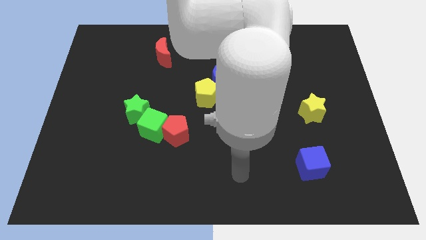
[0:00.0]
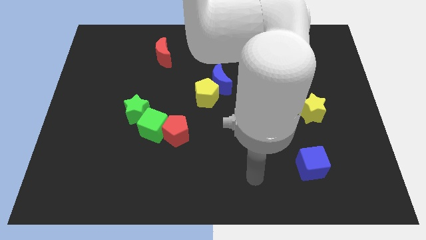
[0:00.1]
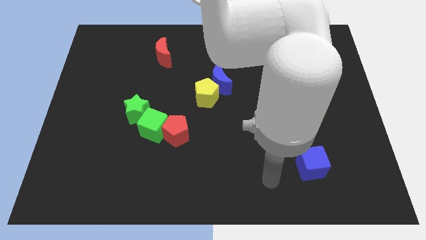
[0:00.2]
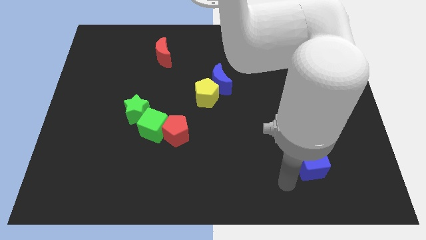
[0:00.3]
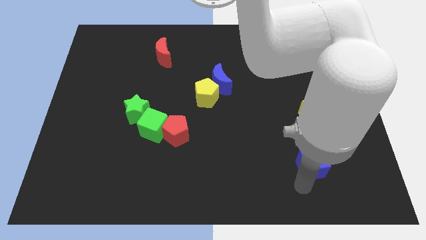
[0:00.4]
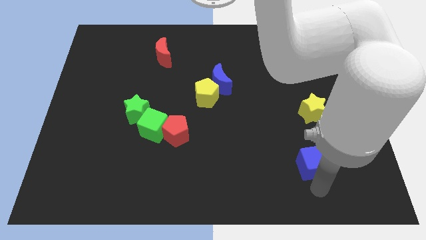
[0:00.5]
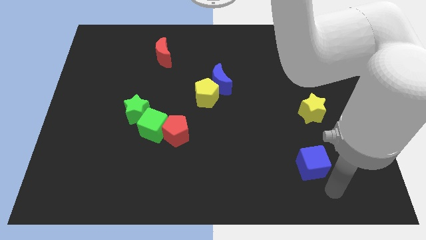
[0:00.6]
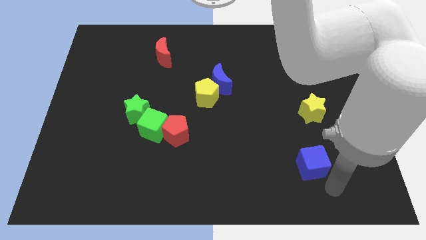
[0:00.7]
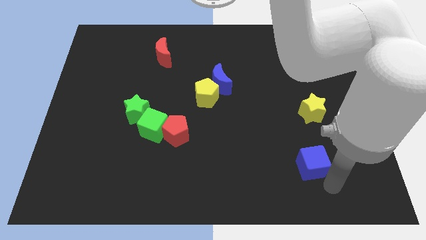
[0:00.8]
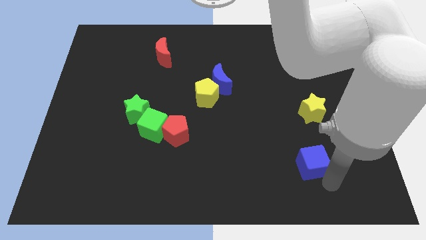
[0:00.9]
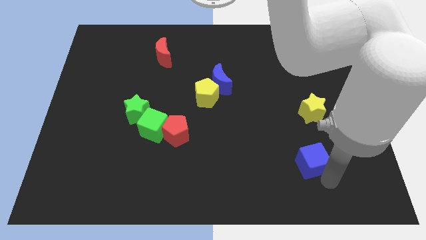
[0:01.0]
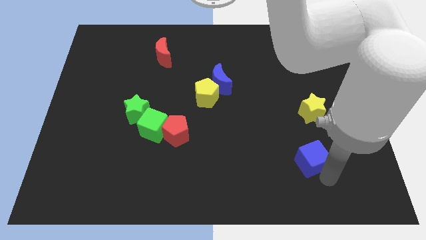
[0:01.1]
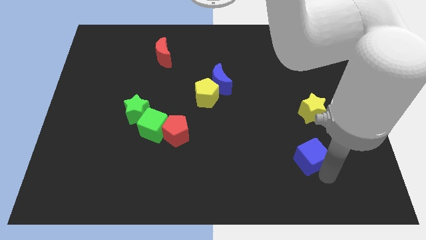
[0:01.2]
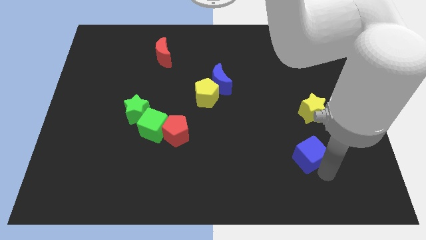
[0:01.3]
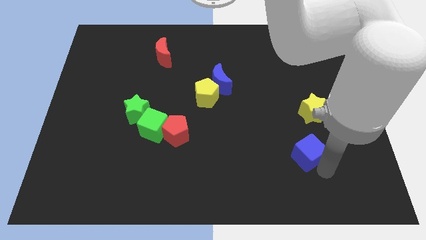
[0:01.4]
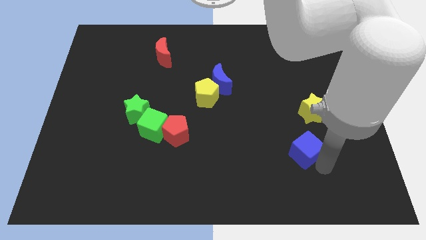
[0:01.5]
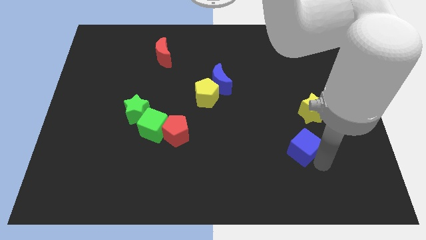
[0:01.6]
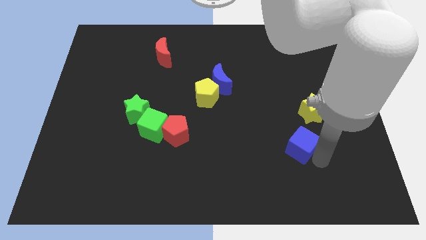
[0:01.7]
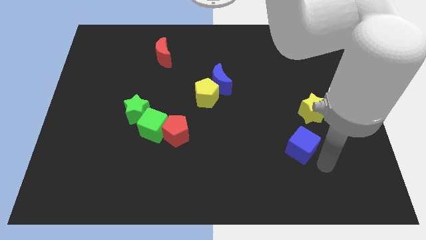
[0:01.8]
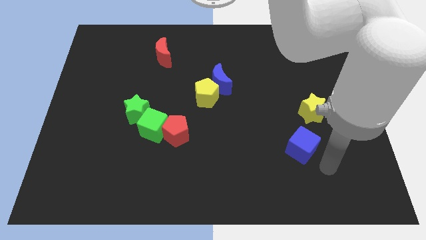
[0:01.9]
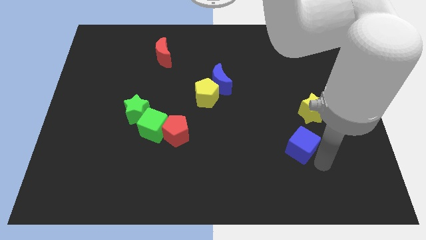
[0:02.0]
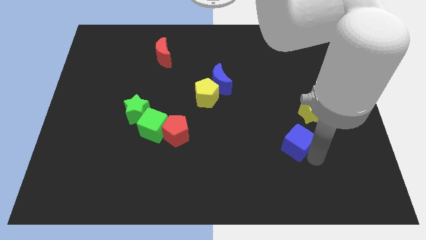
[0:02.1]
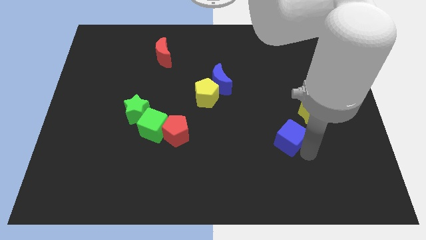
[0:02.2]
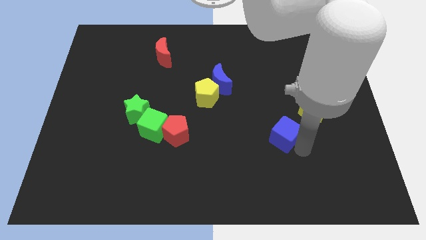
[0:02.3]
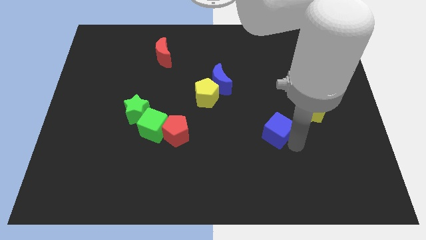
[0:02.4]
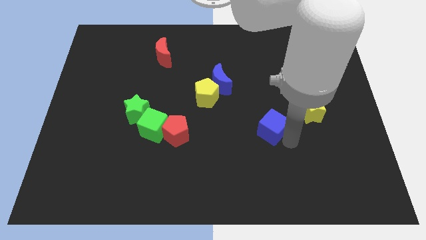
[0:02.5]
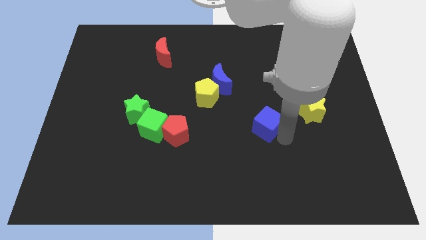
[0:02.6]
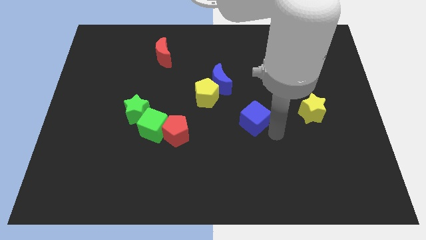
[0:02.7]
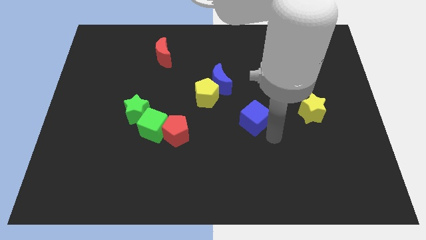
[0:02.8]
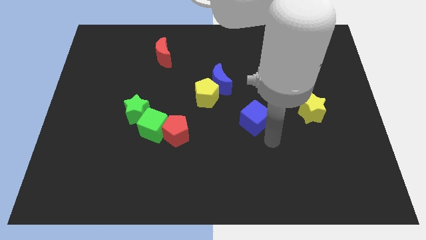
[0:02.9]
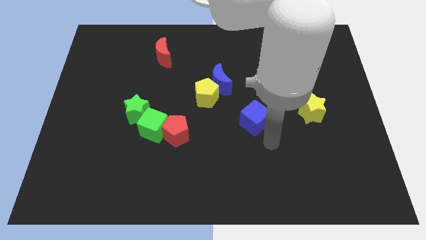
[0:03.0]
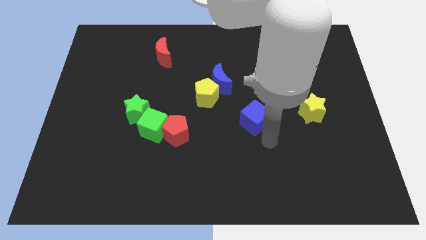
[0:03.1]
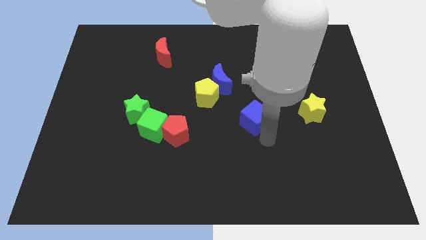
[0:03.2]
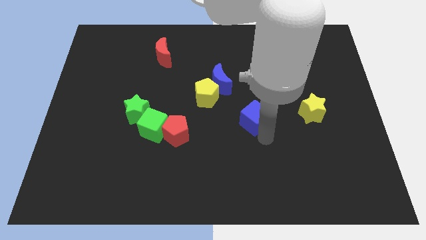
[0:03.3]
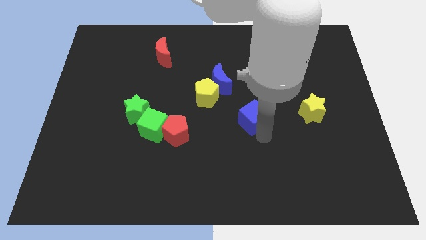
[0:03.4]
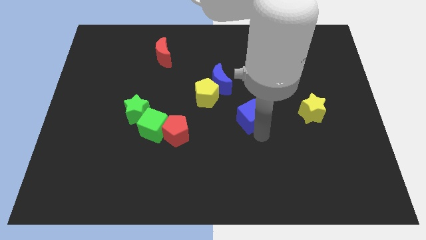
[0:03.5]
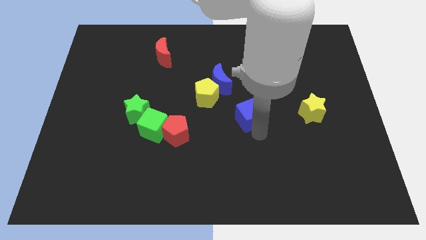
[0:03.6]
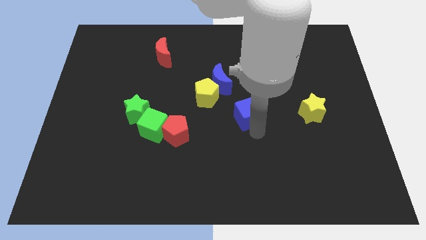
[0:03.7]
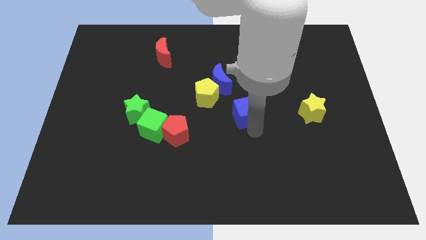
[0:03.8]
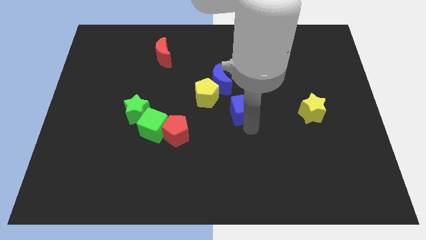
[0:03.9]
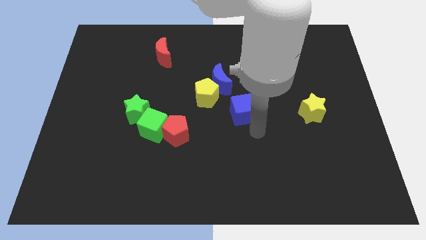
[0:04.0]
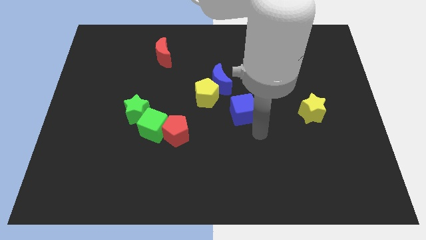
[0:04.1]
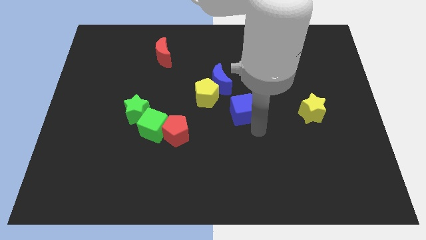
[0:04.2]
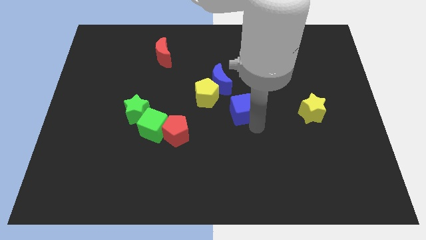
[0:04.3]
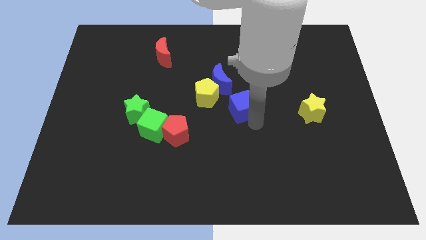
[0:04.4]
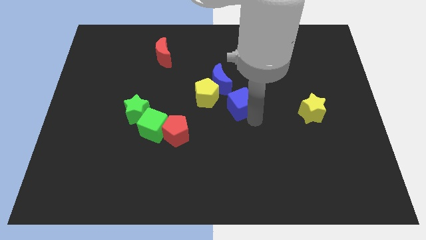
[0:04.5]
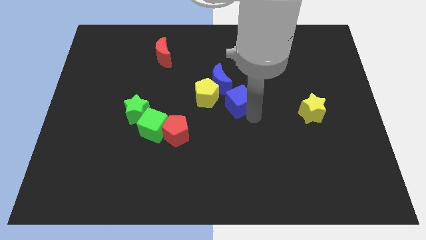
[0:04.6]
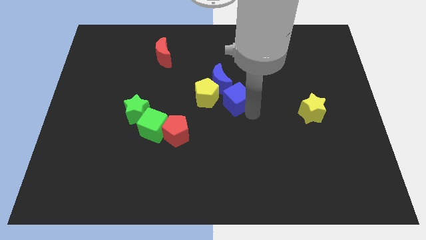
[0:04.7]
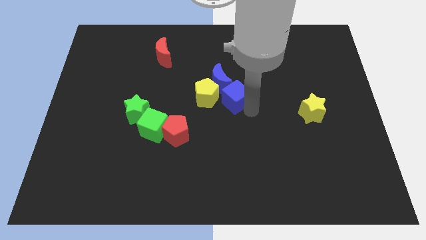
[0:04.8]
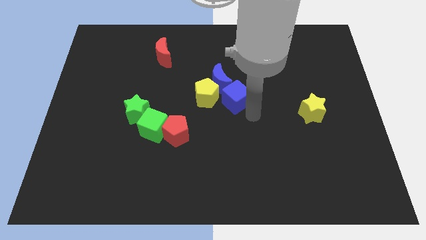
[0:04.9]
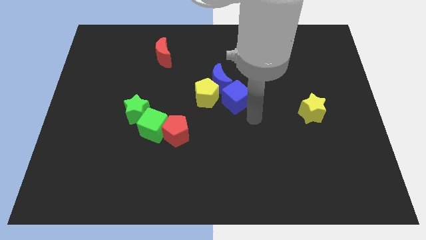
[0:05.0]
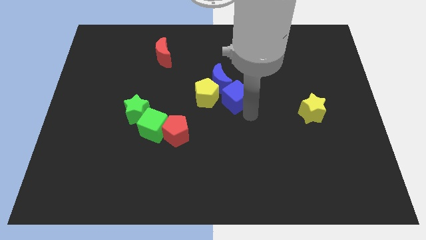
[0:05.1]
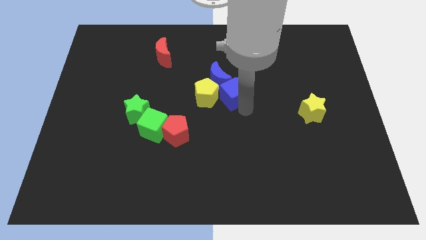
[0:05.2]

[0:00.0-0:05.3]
put the blue cube towards the blue moon

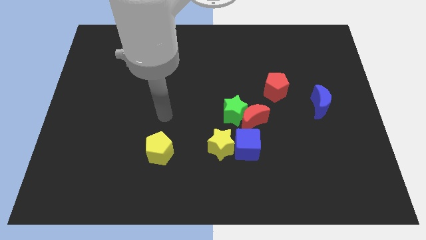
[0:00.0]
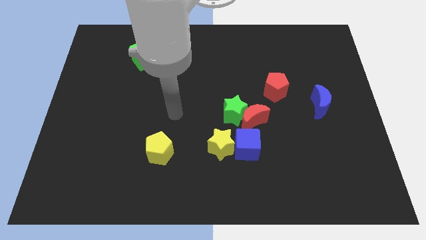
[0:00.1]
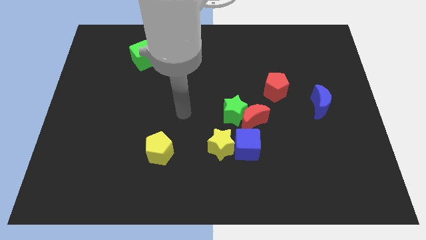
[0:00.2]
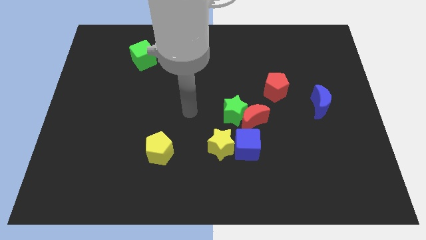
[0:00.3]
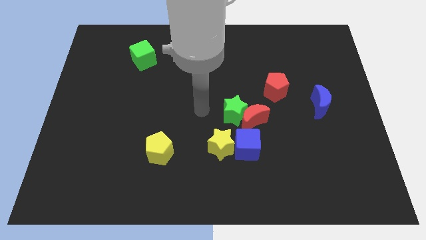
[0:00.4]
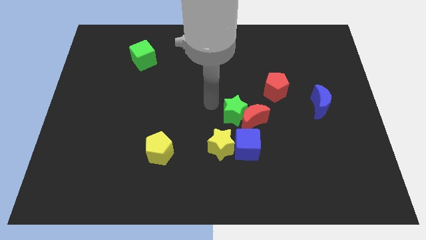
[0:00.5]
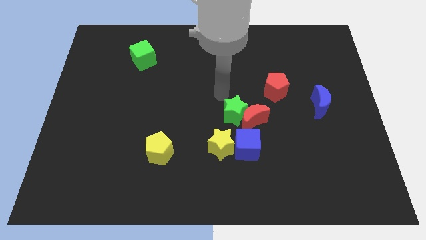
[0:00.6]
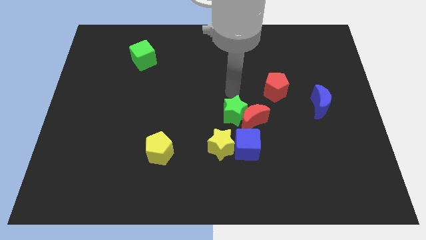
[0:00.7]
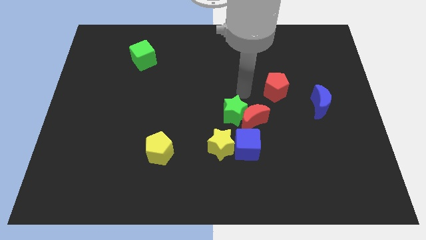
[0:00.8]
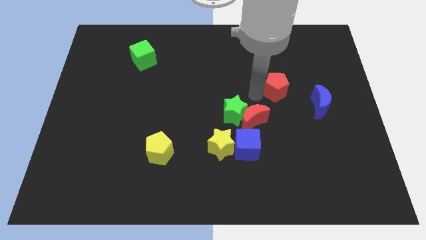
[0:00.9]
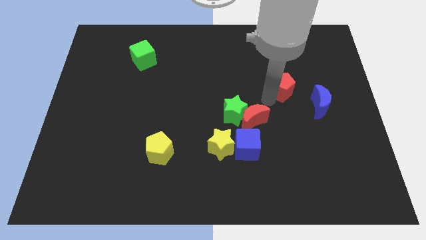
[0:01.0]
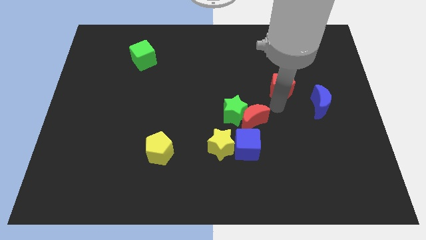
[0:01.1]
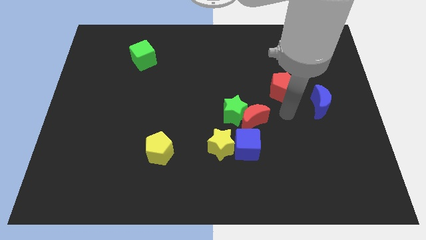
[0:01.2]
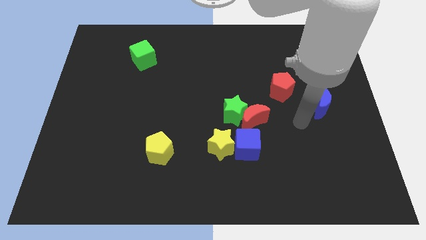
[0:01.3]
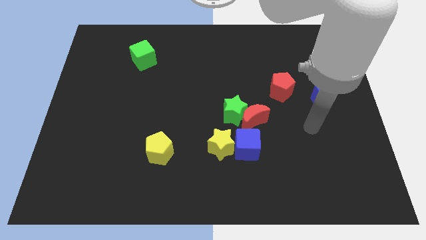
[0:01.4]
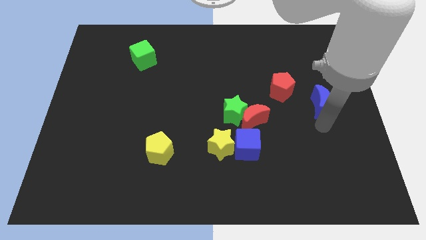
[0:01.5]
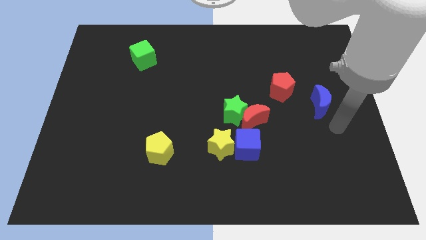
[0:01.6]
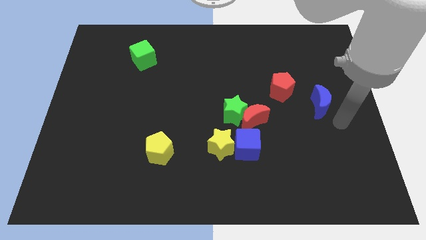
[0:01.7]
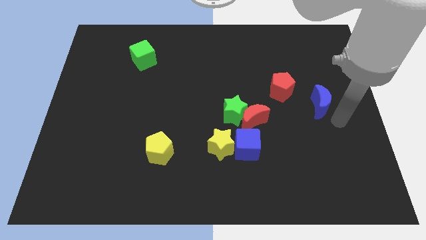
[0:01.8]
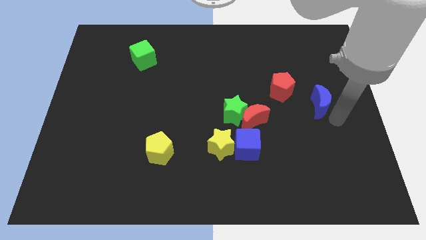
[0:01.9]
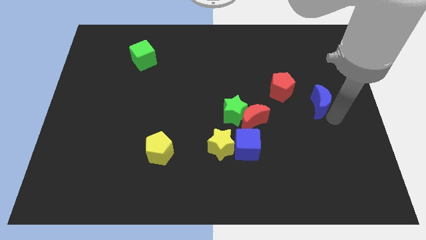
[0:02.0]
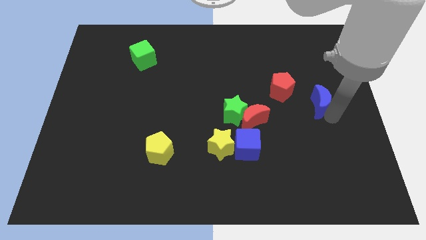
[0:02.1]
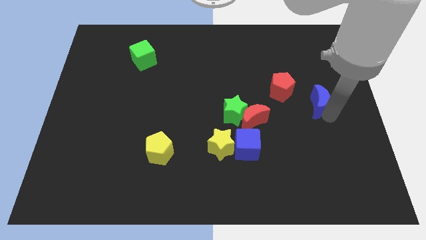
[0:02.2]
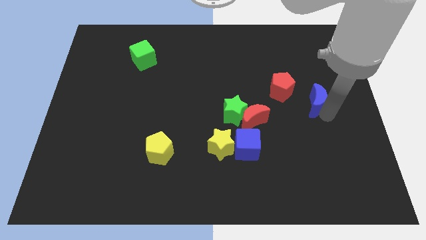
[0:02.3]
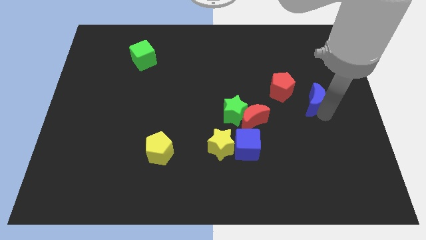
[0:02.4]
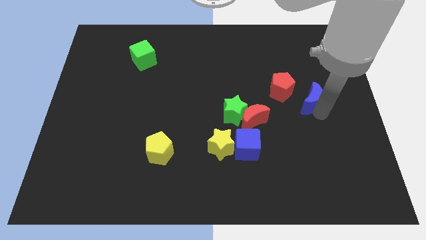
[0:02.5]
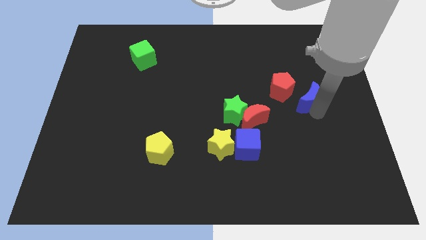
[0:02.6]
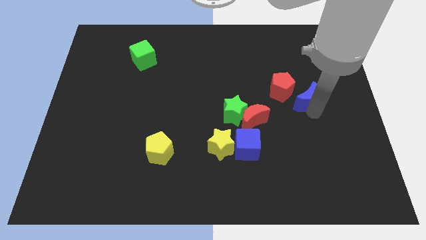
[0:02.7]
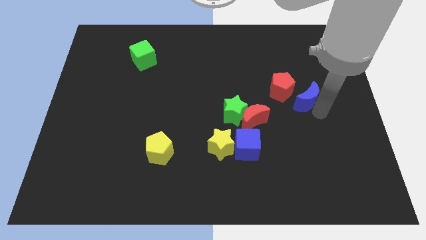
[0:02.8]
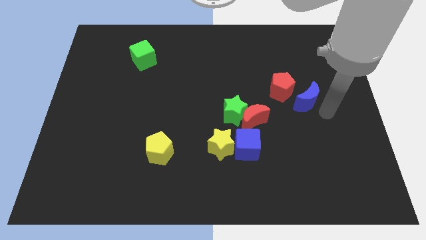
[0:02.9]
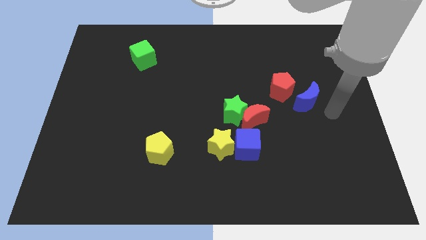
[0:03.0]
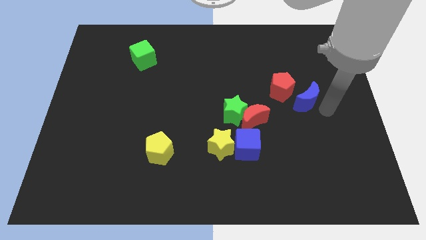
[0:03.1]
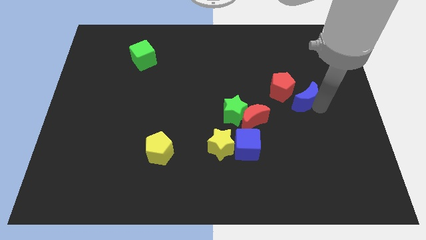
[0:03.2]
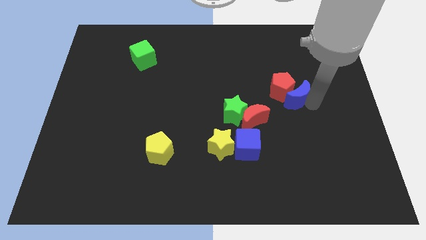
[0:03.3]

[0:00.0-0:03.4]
push the blue moon next to the red pentagon
